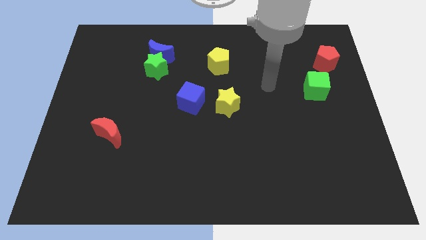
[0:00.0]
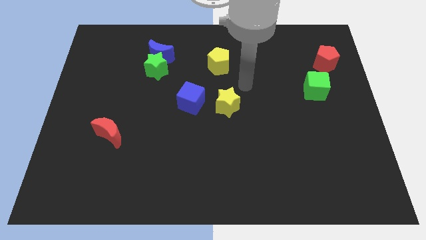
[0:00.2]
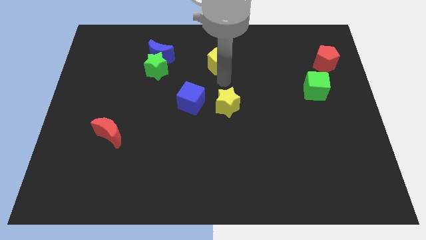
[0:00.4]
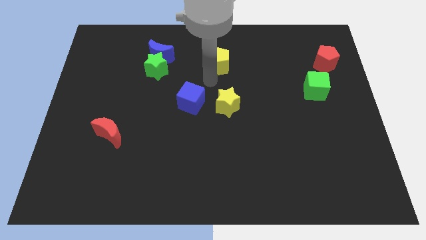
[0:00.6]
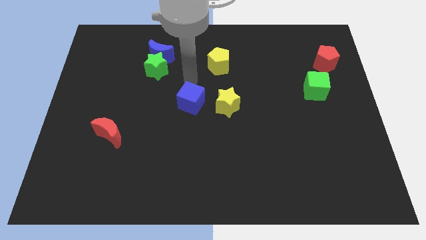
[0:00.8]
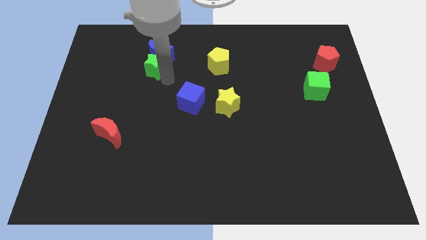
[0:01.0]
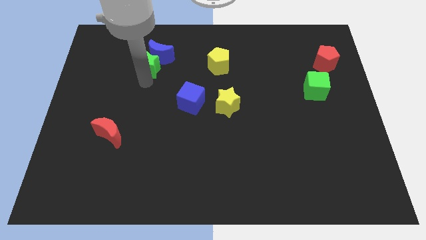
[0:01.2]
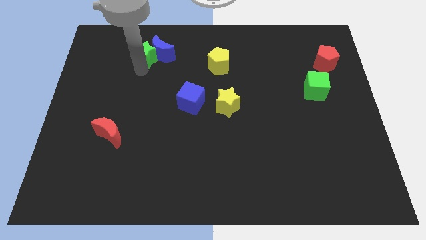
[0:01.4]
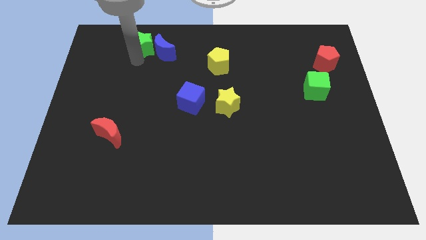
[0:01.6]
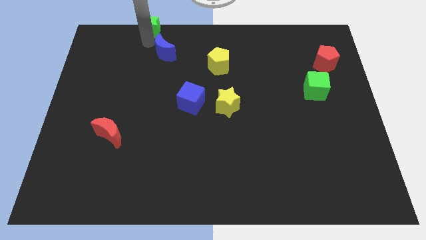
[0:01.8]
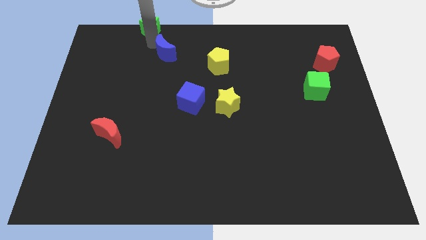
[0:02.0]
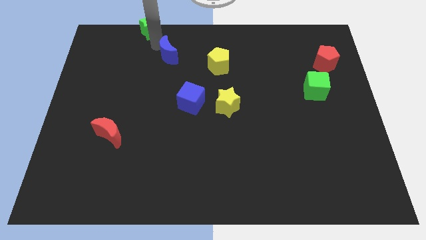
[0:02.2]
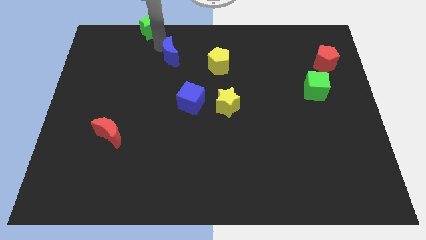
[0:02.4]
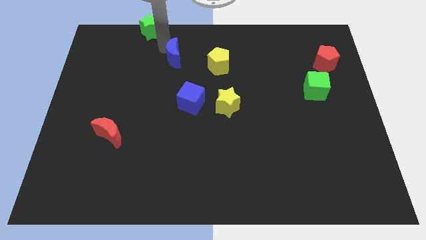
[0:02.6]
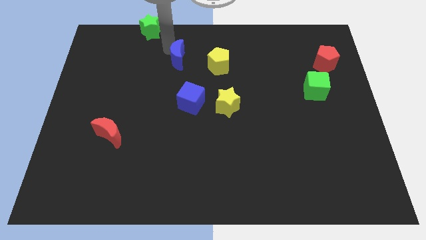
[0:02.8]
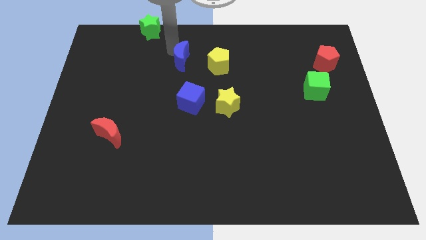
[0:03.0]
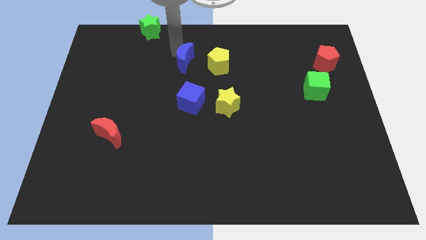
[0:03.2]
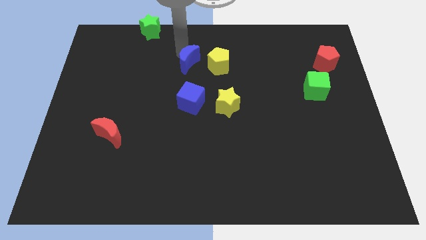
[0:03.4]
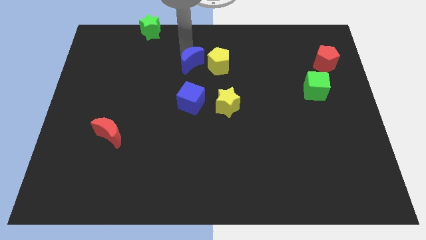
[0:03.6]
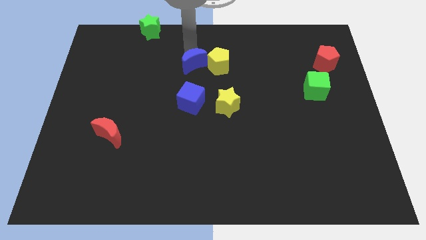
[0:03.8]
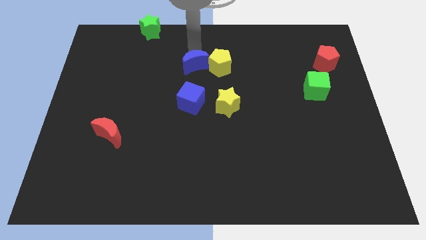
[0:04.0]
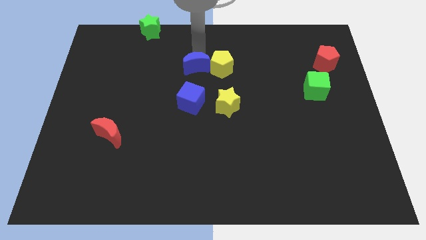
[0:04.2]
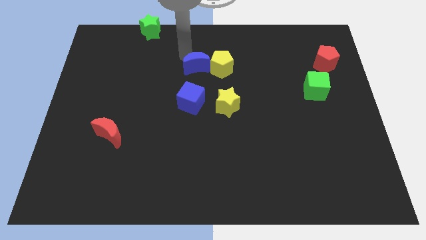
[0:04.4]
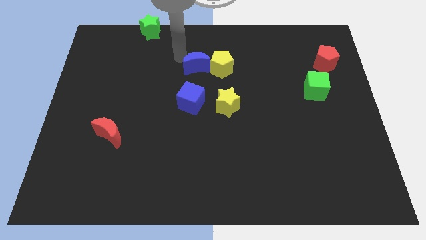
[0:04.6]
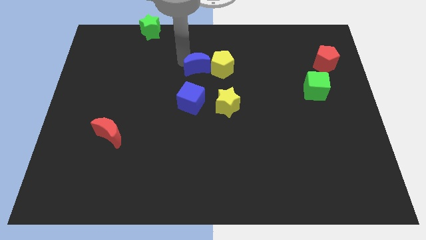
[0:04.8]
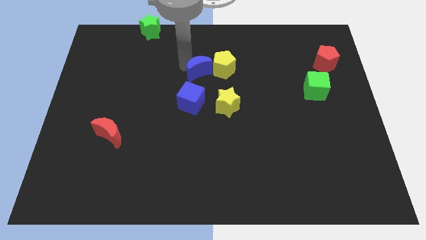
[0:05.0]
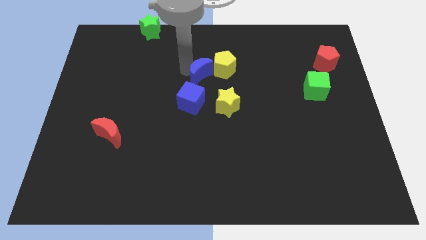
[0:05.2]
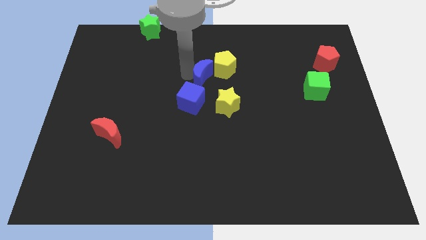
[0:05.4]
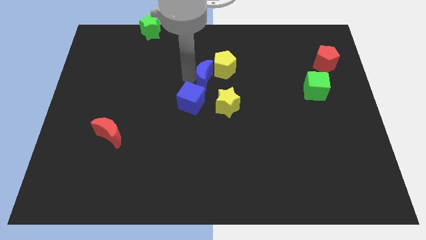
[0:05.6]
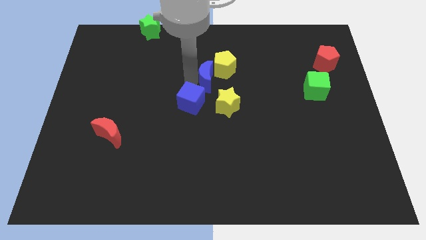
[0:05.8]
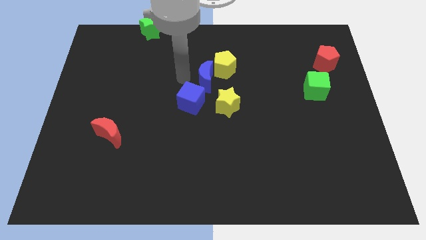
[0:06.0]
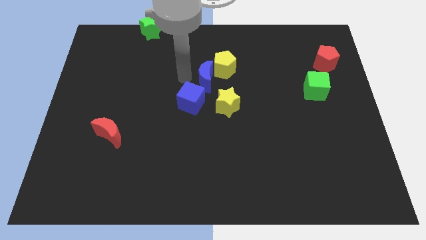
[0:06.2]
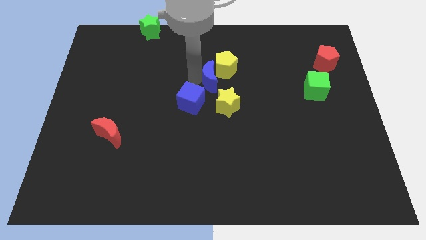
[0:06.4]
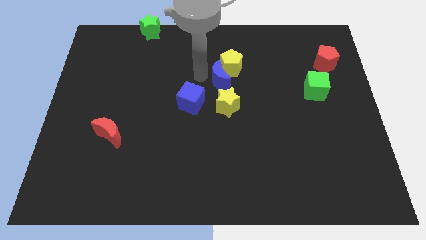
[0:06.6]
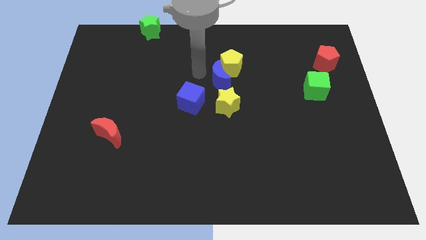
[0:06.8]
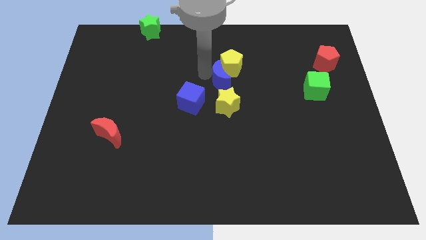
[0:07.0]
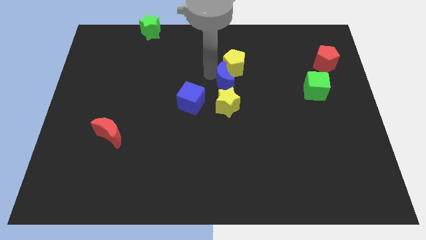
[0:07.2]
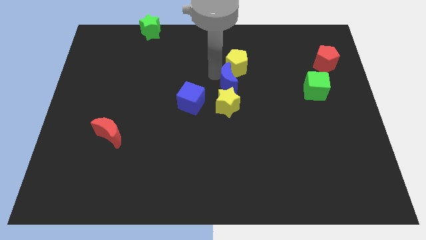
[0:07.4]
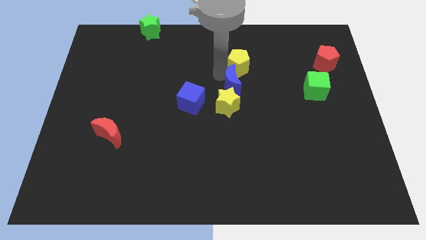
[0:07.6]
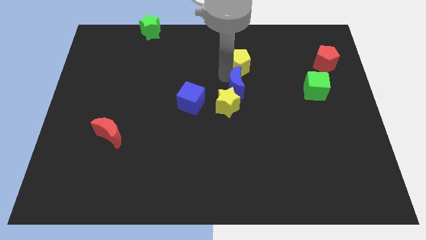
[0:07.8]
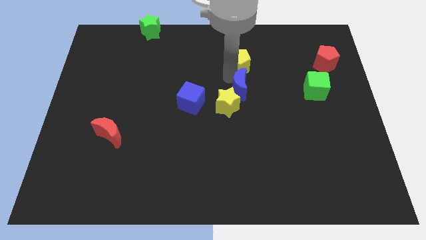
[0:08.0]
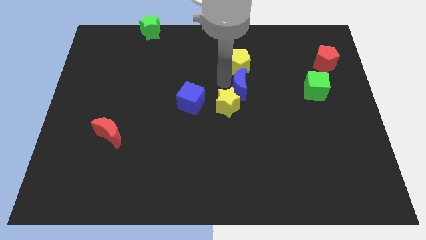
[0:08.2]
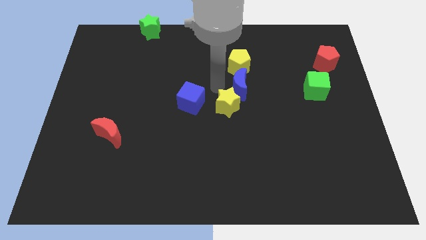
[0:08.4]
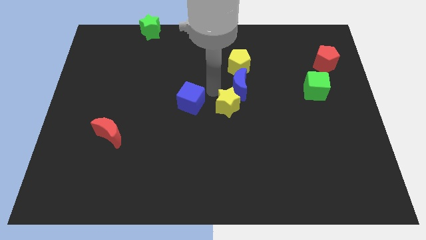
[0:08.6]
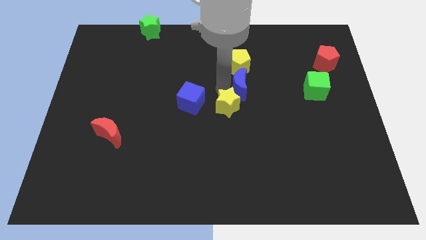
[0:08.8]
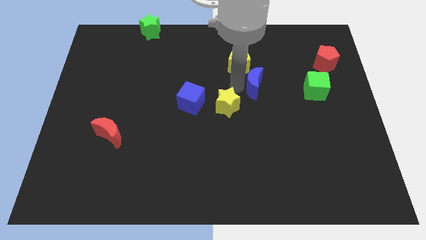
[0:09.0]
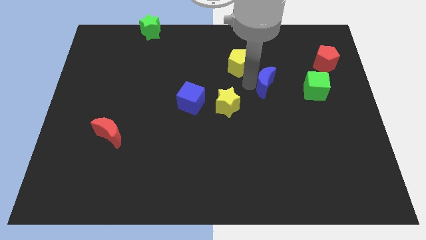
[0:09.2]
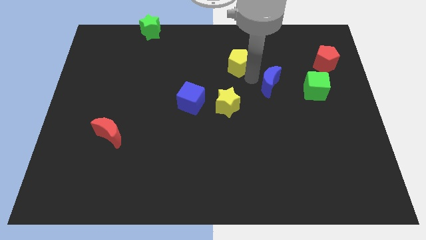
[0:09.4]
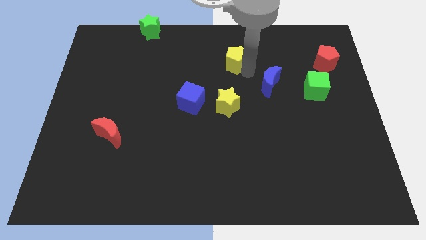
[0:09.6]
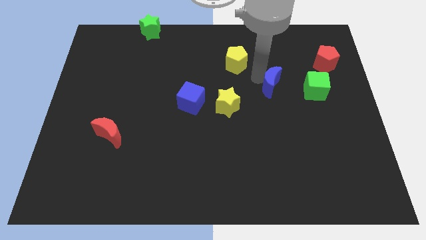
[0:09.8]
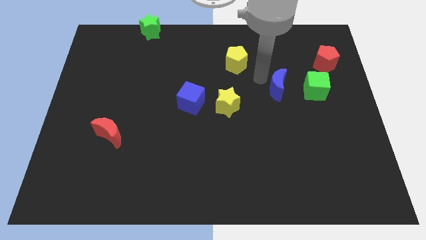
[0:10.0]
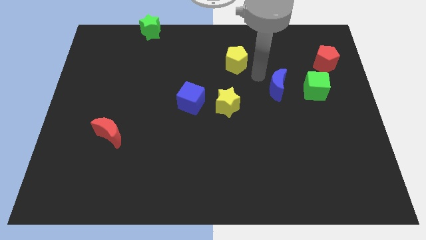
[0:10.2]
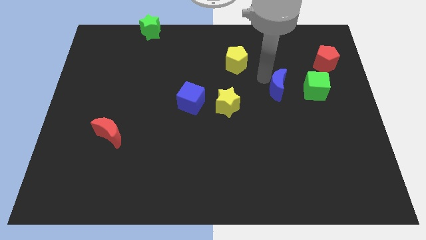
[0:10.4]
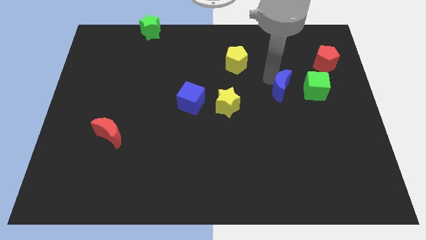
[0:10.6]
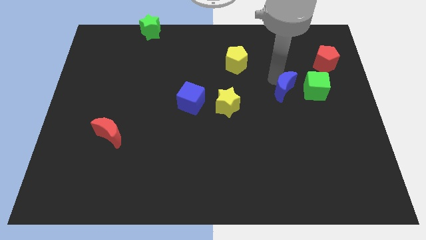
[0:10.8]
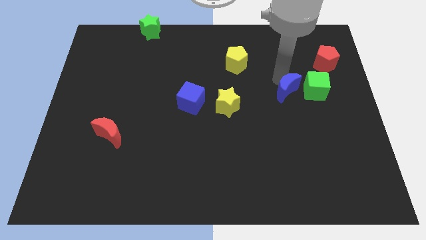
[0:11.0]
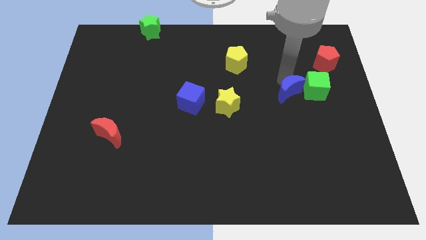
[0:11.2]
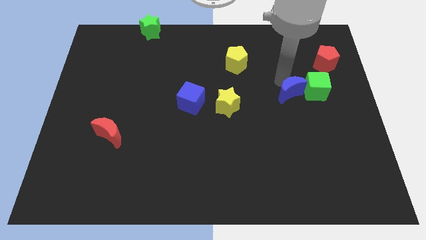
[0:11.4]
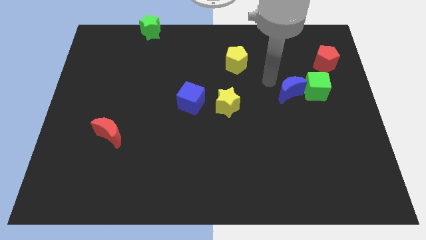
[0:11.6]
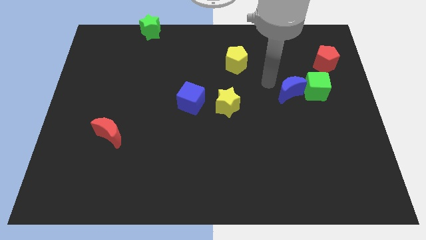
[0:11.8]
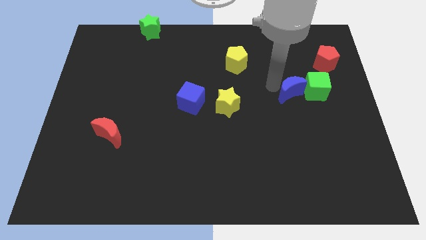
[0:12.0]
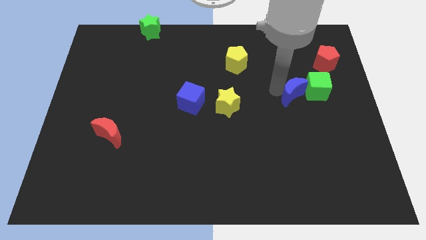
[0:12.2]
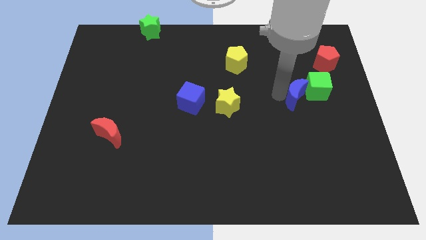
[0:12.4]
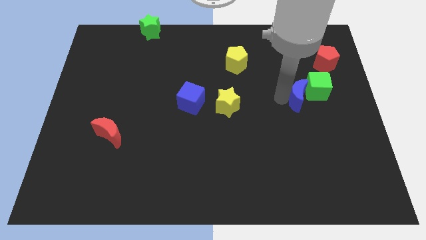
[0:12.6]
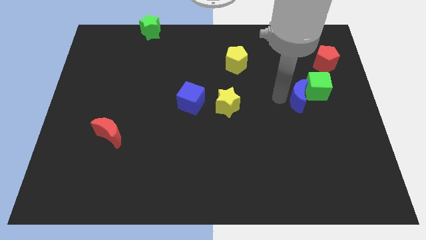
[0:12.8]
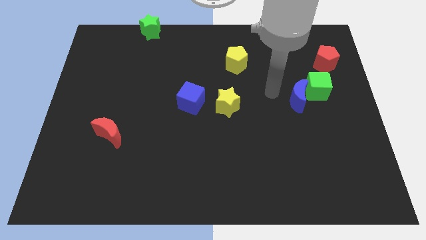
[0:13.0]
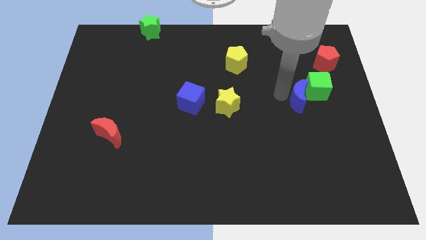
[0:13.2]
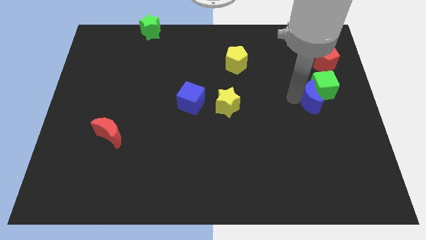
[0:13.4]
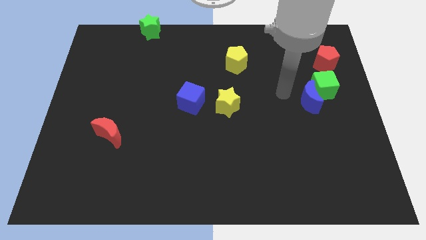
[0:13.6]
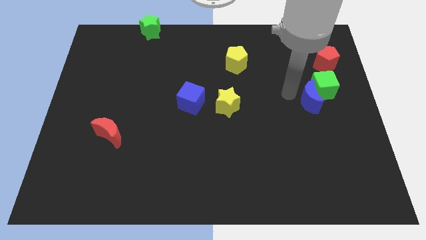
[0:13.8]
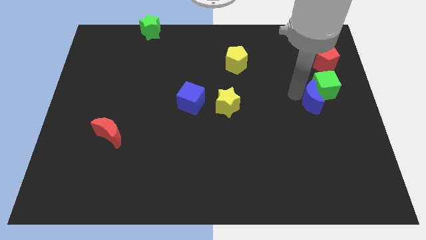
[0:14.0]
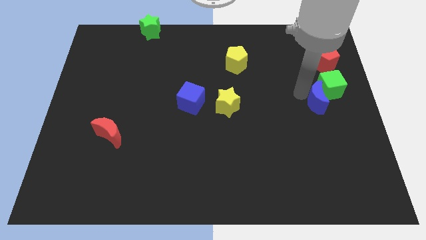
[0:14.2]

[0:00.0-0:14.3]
put the blue moon to the bottom side of the red pentagon

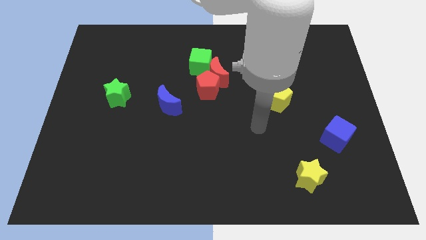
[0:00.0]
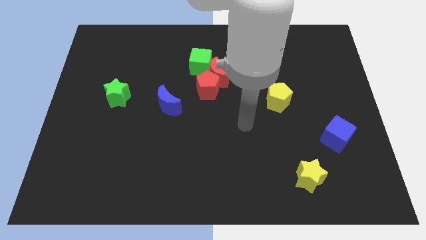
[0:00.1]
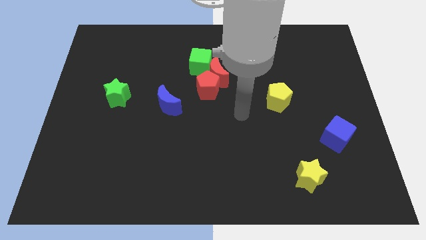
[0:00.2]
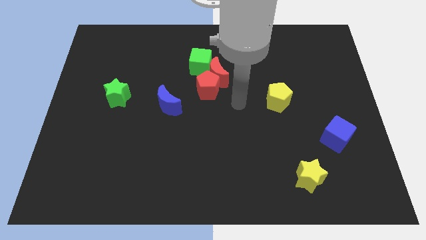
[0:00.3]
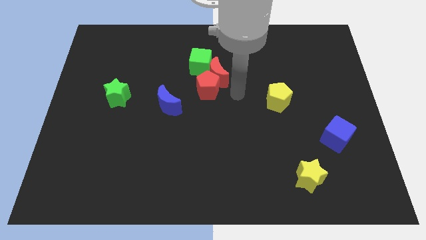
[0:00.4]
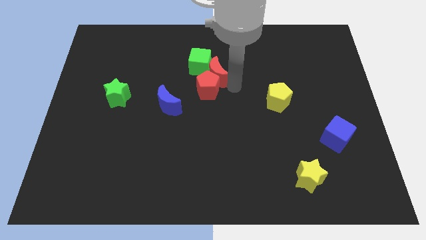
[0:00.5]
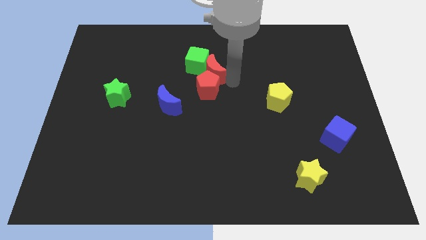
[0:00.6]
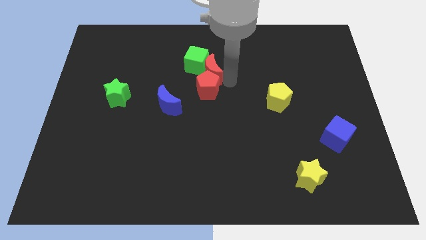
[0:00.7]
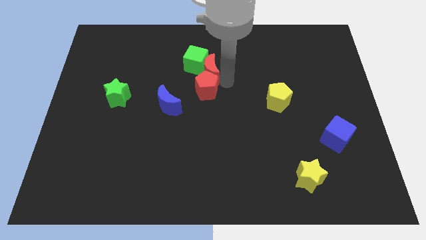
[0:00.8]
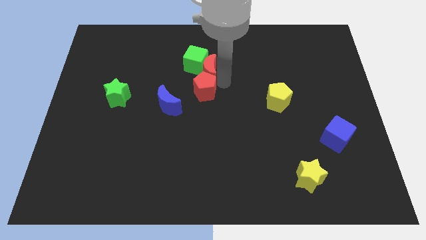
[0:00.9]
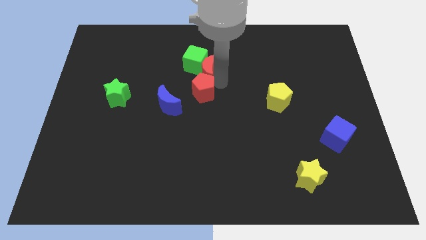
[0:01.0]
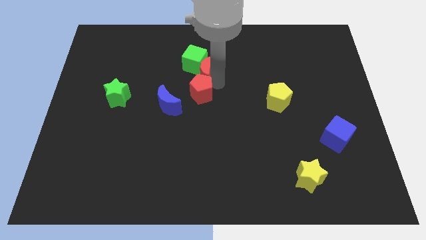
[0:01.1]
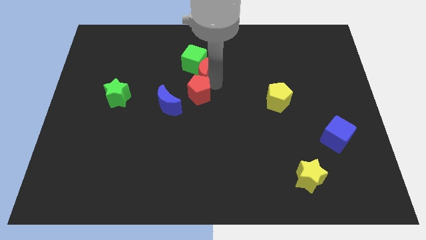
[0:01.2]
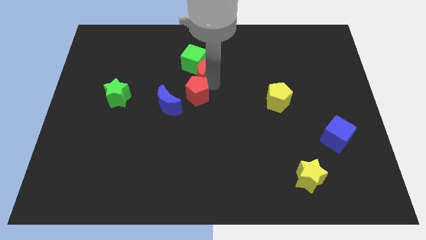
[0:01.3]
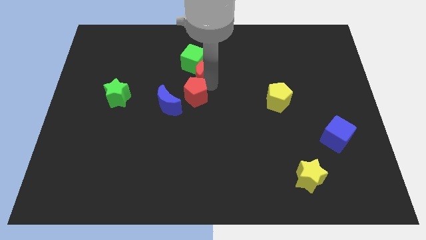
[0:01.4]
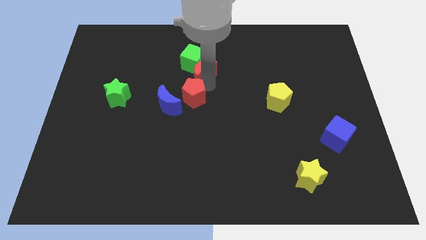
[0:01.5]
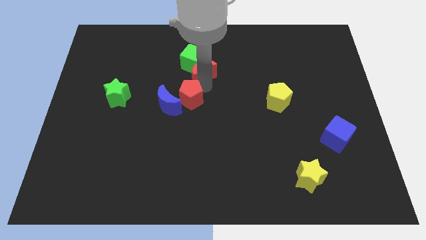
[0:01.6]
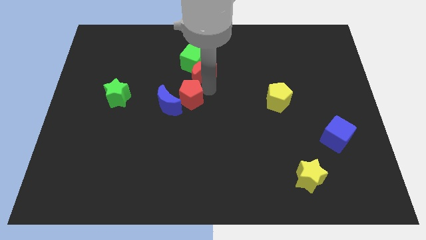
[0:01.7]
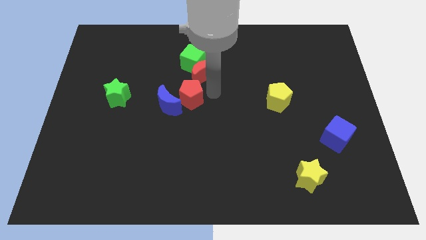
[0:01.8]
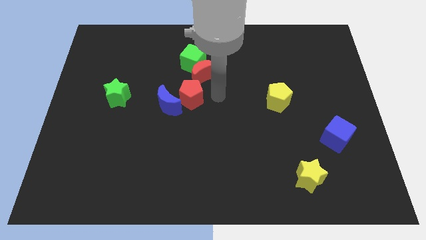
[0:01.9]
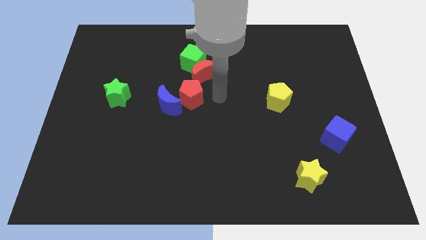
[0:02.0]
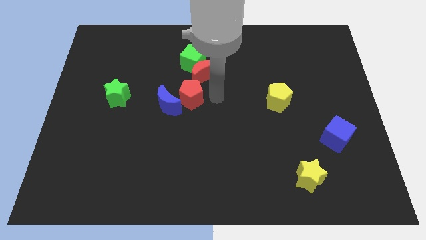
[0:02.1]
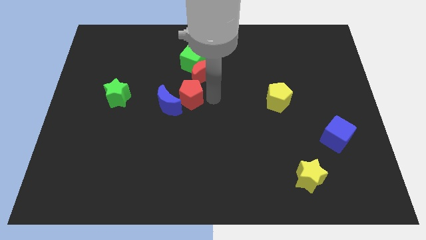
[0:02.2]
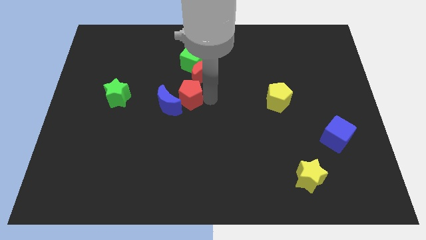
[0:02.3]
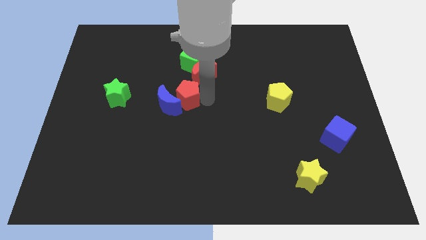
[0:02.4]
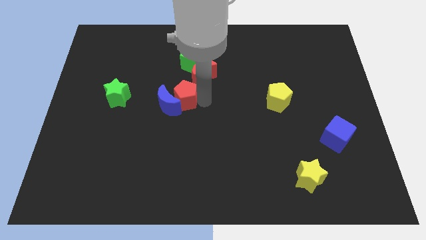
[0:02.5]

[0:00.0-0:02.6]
put the red pentagon to the right side of the green star
